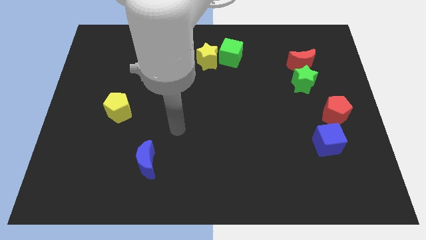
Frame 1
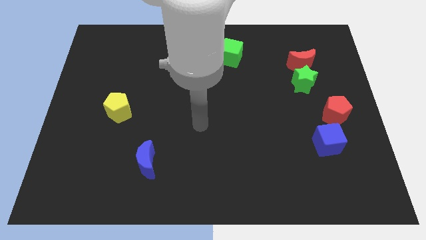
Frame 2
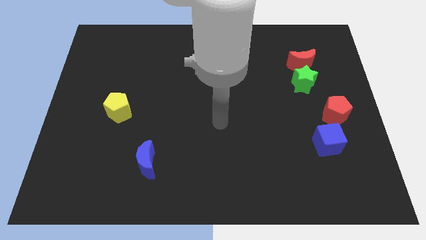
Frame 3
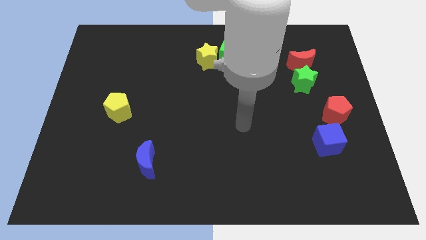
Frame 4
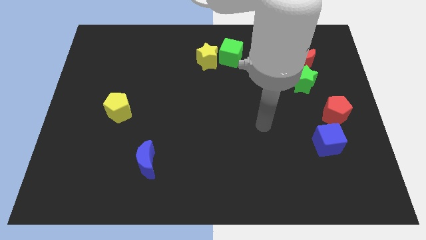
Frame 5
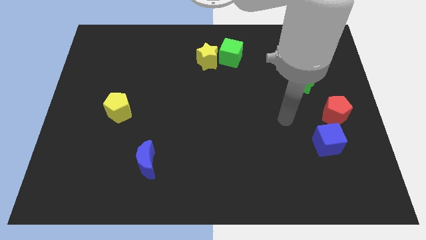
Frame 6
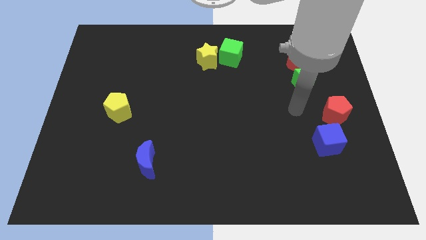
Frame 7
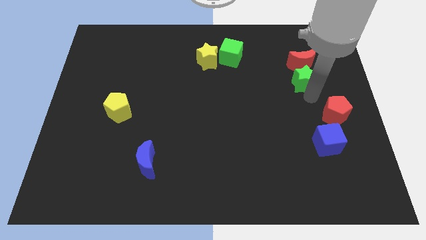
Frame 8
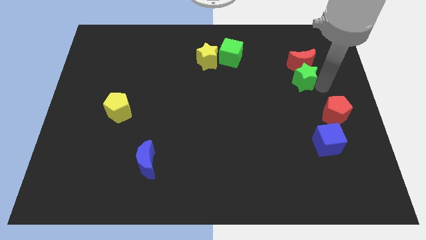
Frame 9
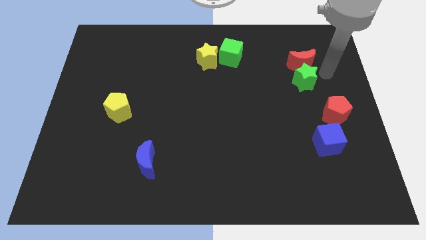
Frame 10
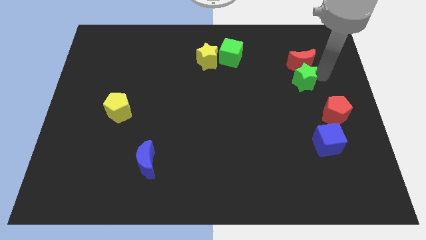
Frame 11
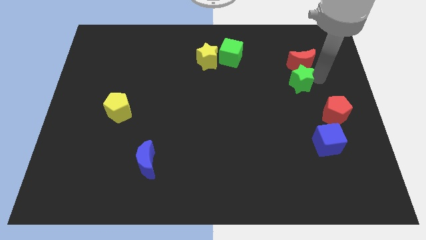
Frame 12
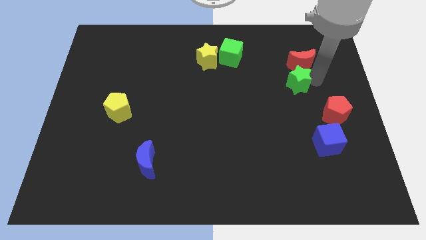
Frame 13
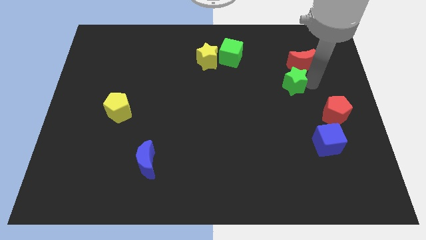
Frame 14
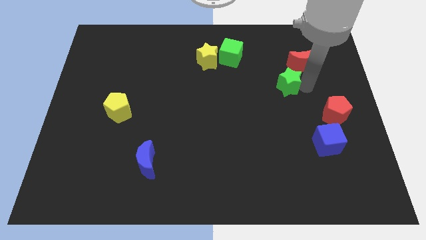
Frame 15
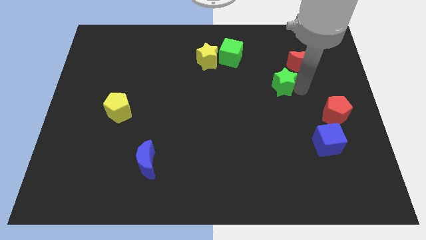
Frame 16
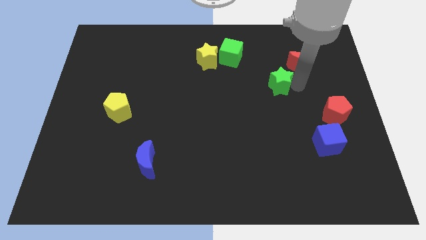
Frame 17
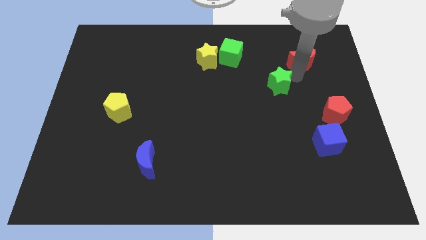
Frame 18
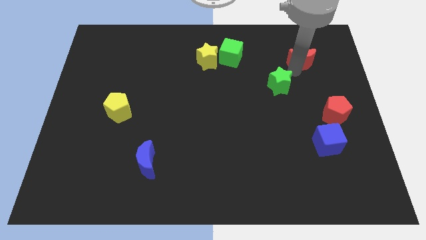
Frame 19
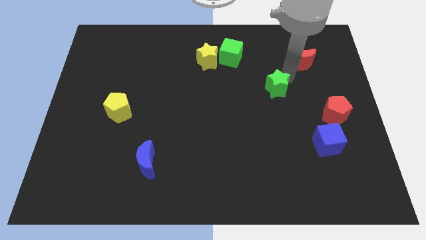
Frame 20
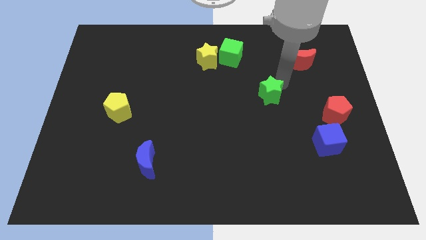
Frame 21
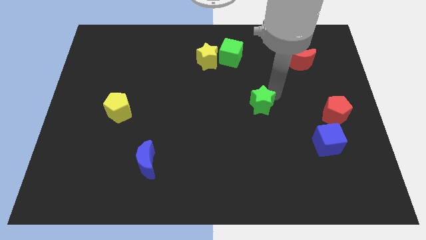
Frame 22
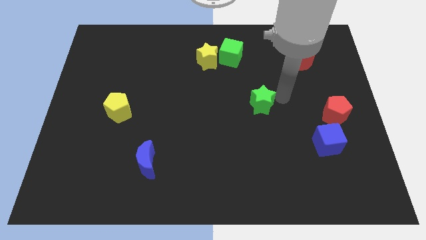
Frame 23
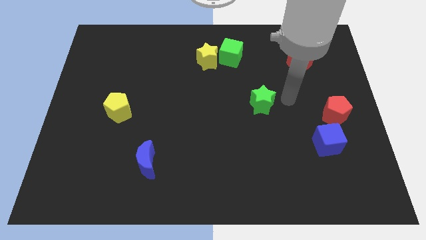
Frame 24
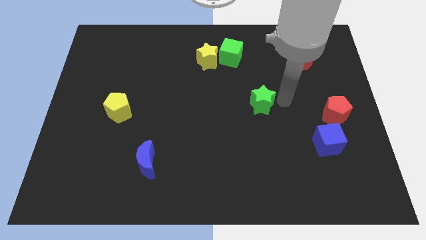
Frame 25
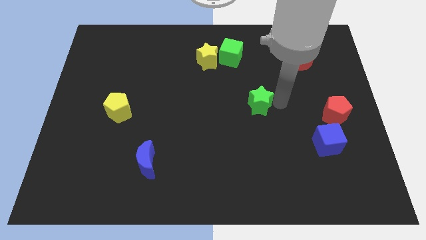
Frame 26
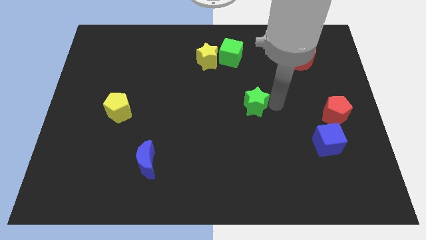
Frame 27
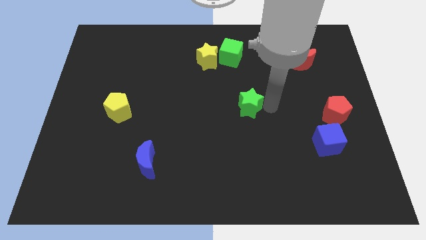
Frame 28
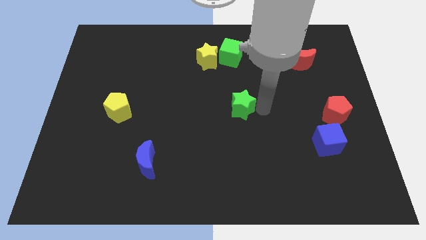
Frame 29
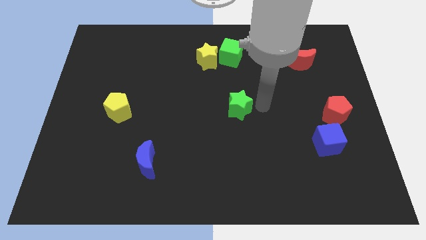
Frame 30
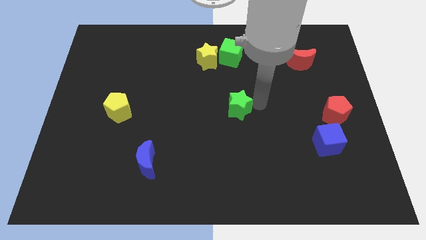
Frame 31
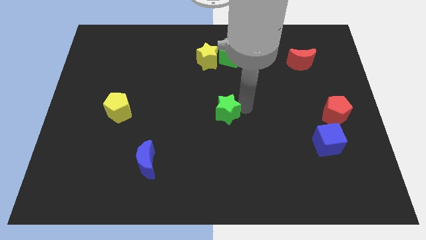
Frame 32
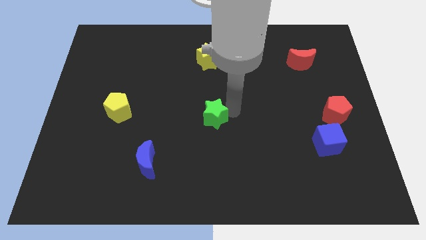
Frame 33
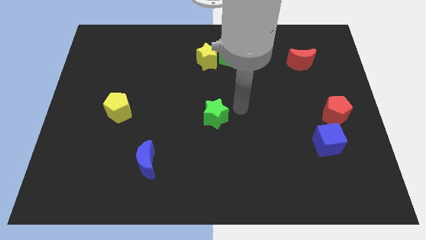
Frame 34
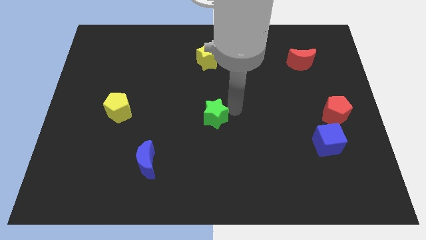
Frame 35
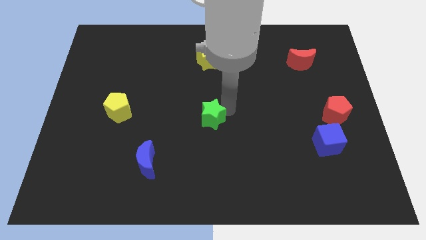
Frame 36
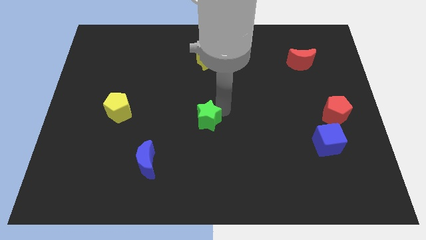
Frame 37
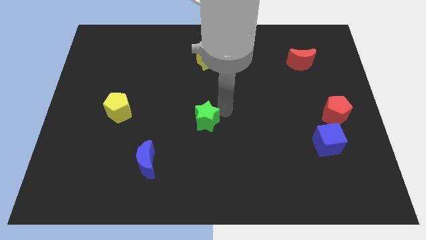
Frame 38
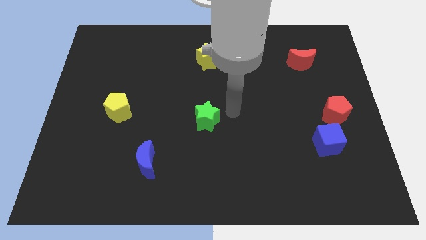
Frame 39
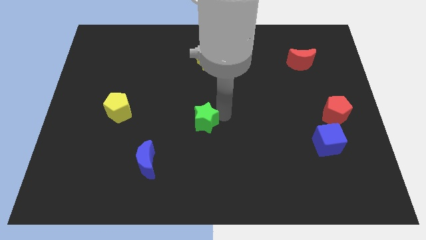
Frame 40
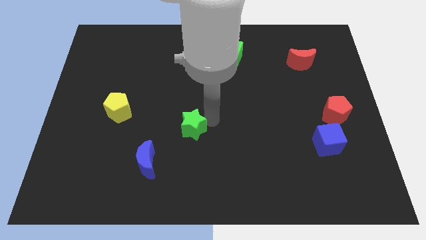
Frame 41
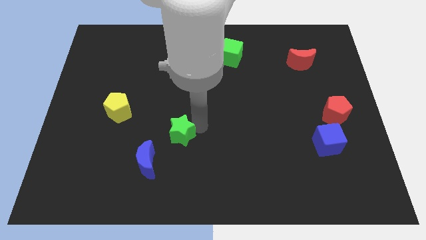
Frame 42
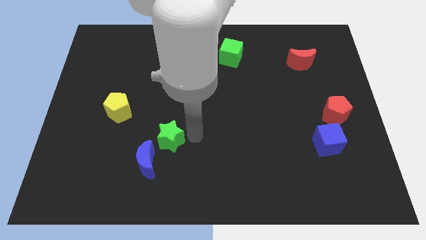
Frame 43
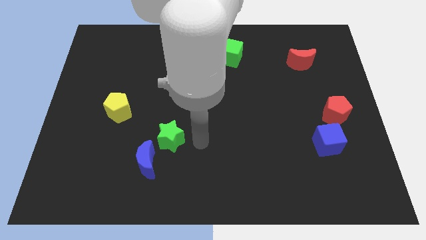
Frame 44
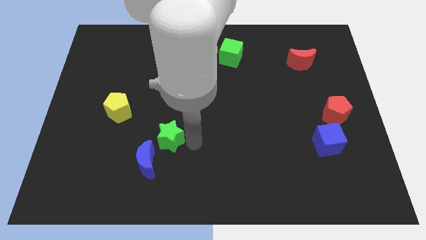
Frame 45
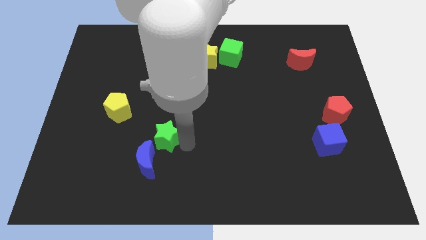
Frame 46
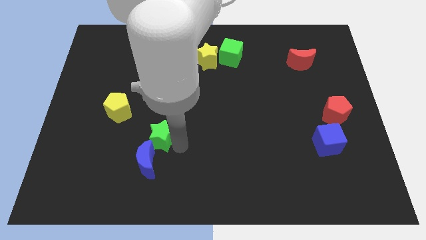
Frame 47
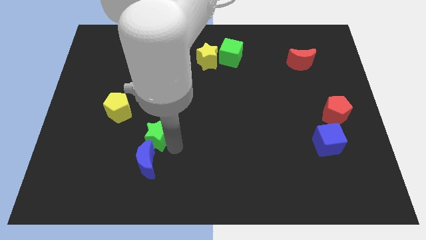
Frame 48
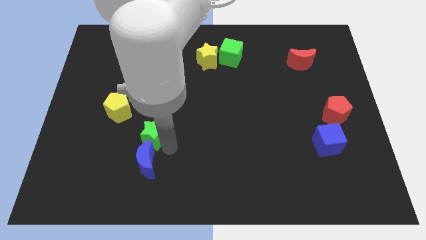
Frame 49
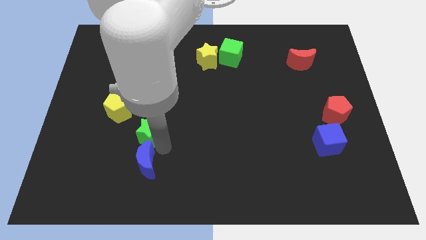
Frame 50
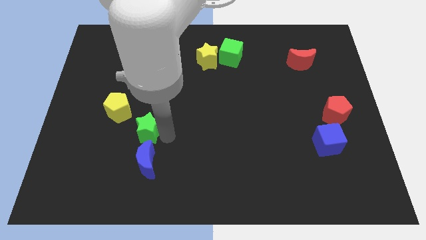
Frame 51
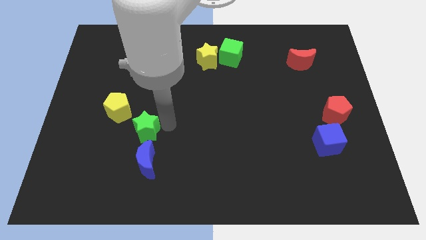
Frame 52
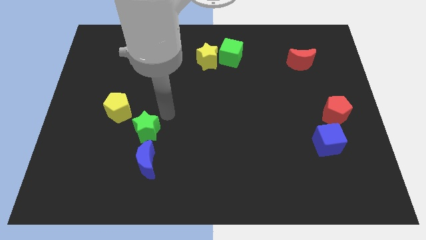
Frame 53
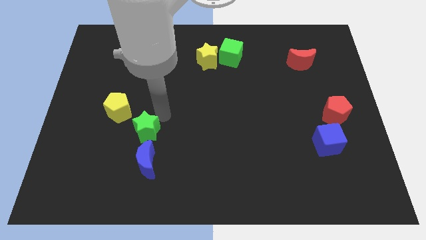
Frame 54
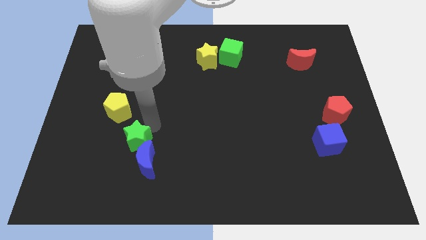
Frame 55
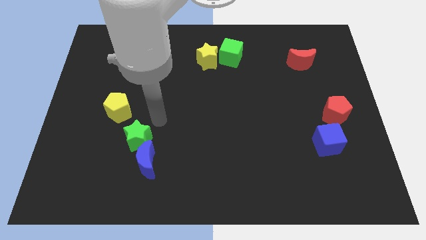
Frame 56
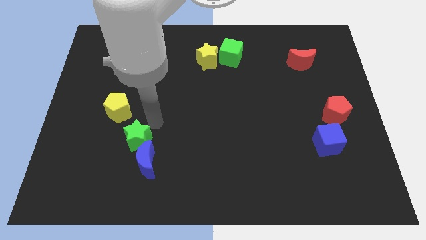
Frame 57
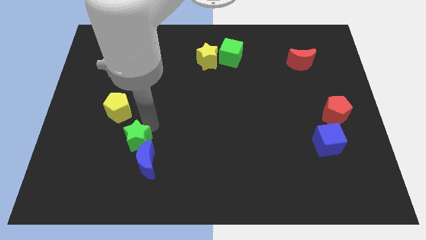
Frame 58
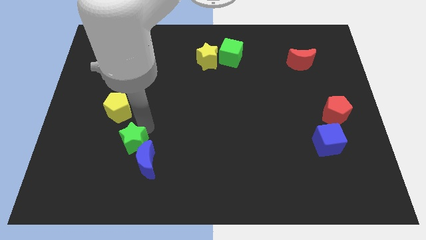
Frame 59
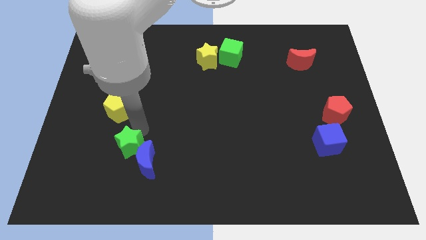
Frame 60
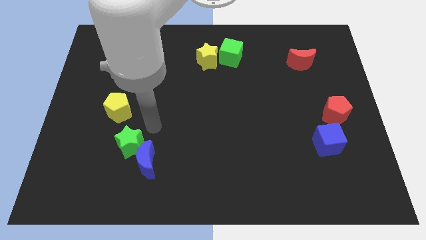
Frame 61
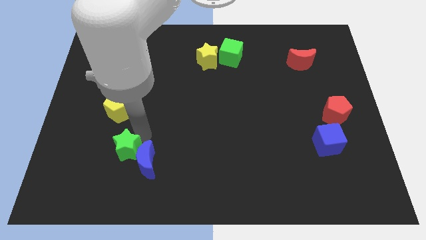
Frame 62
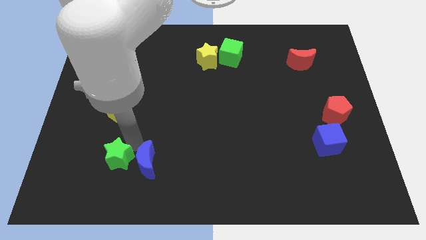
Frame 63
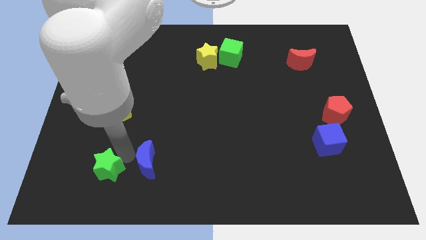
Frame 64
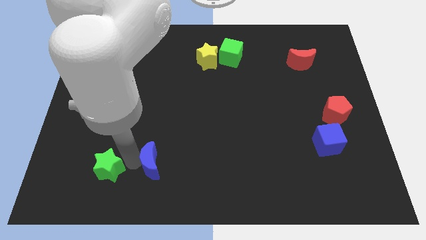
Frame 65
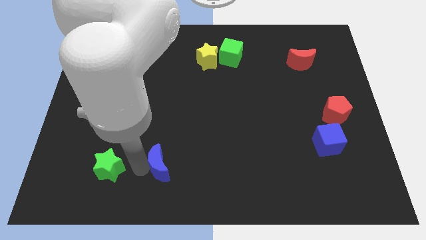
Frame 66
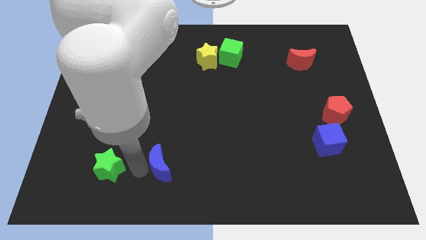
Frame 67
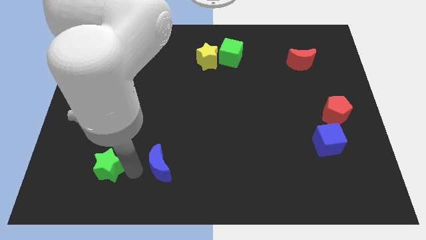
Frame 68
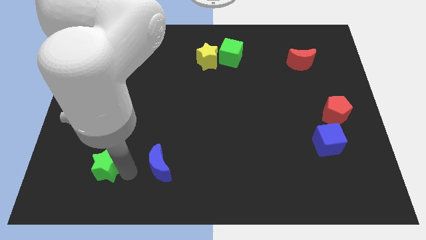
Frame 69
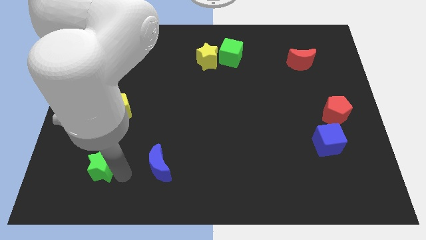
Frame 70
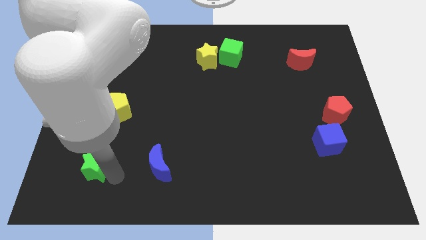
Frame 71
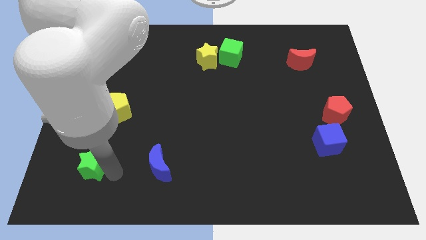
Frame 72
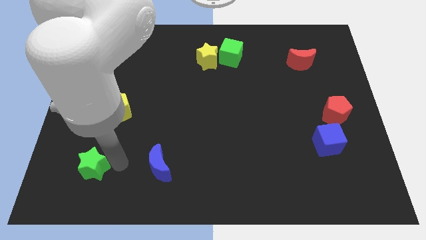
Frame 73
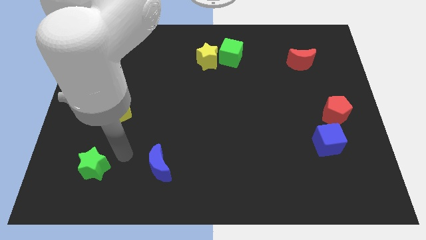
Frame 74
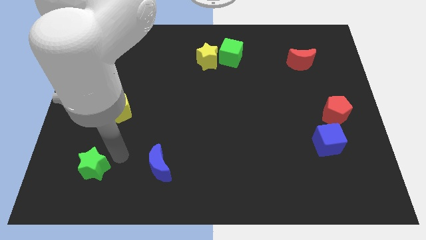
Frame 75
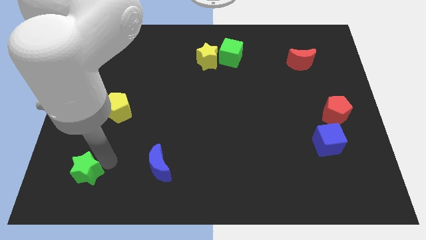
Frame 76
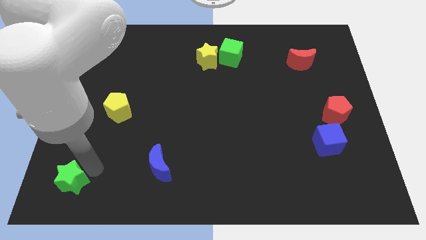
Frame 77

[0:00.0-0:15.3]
slide the green star to the bottom left corner
